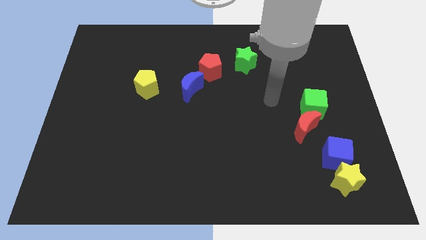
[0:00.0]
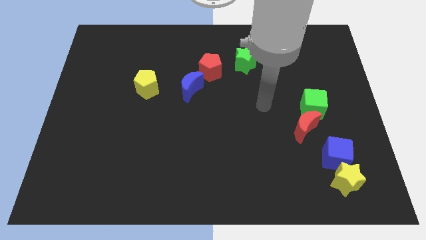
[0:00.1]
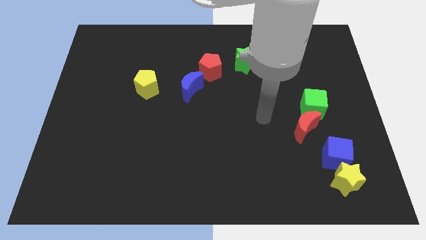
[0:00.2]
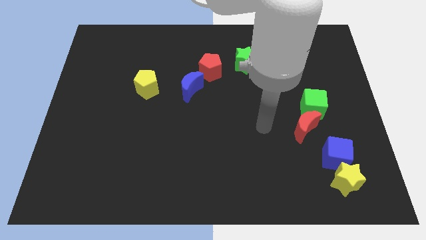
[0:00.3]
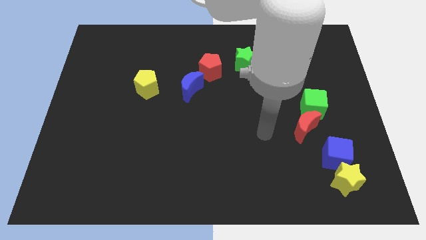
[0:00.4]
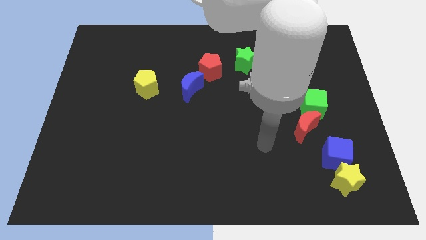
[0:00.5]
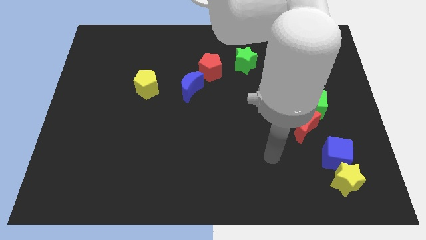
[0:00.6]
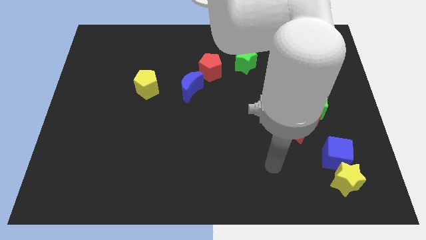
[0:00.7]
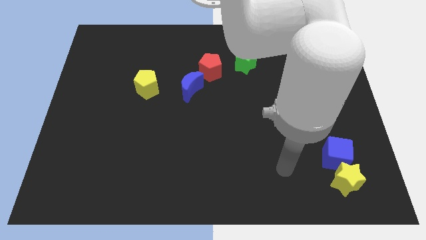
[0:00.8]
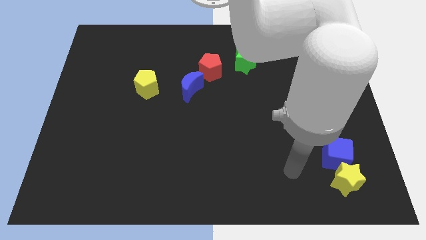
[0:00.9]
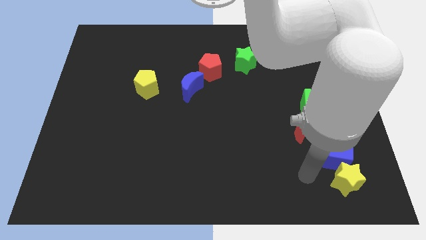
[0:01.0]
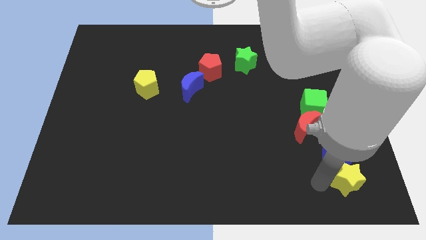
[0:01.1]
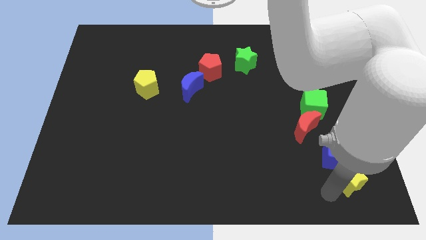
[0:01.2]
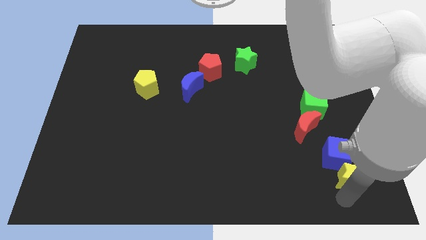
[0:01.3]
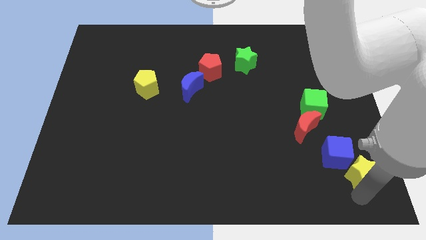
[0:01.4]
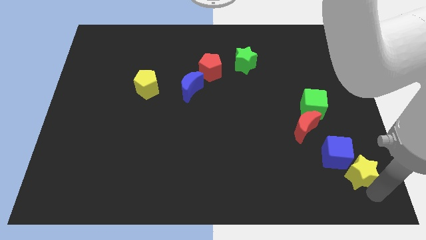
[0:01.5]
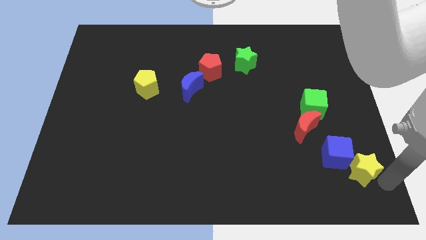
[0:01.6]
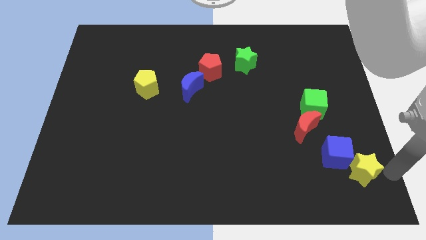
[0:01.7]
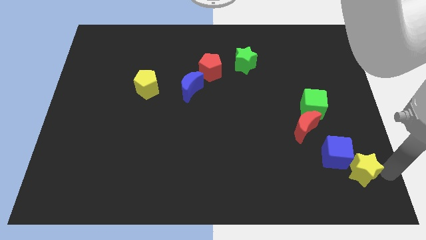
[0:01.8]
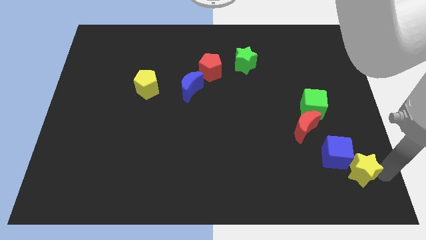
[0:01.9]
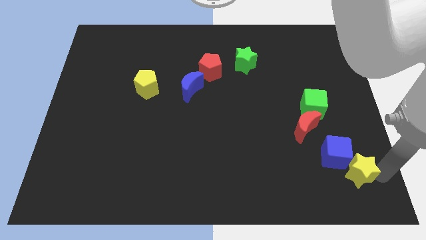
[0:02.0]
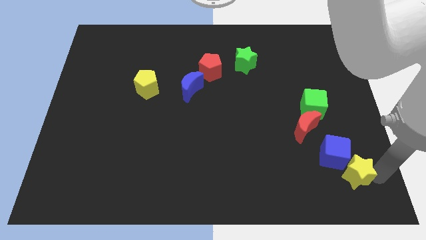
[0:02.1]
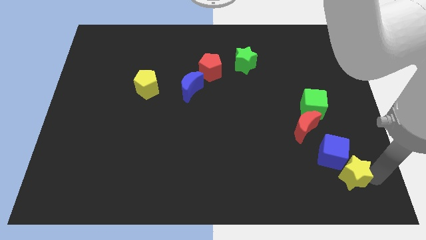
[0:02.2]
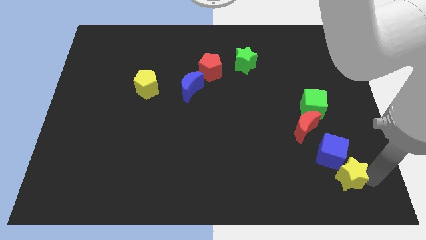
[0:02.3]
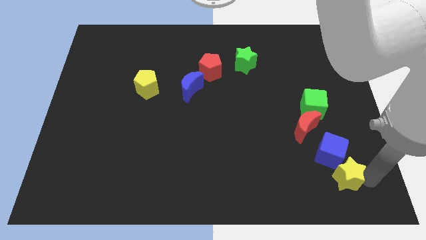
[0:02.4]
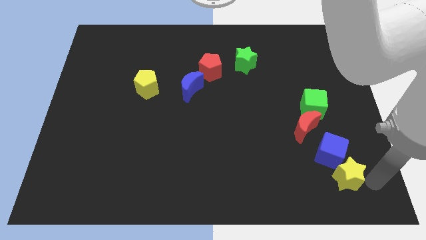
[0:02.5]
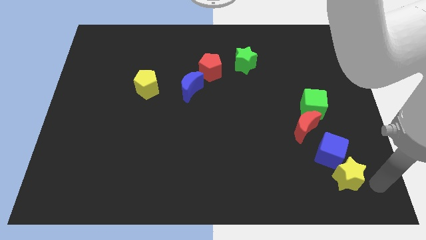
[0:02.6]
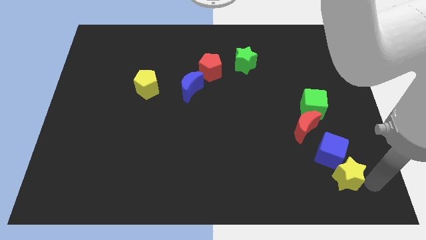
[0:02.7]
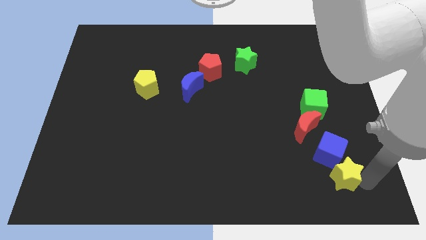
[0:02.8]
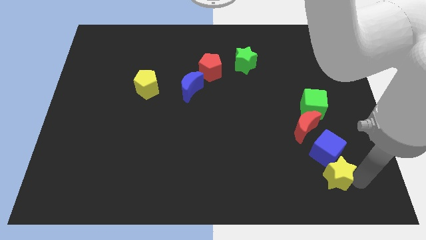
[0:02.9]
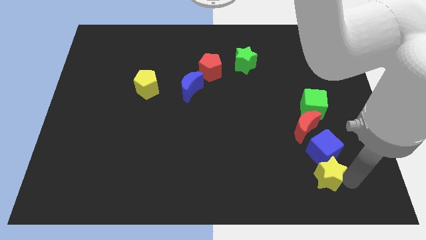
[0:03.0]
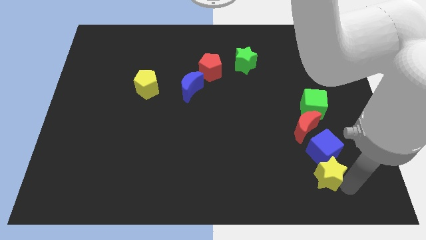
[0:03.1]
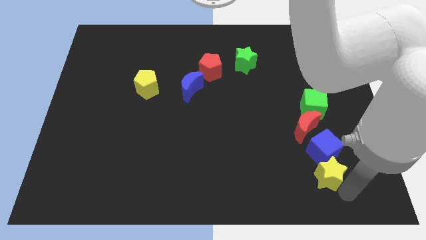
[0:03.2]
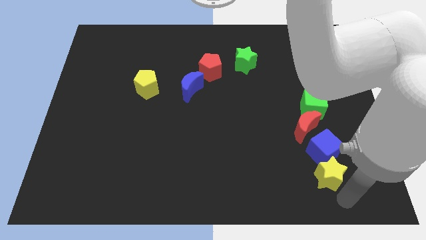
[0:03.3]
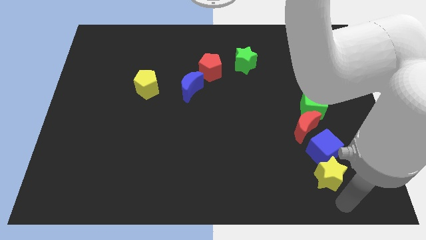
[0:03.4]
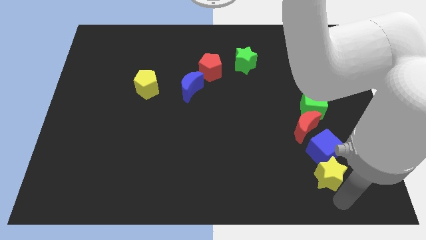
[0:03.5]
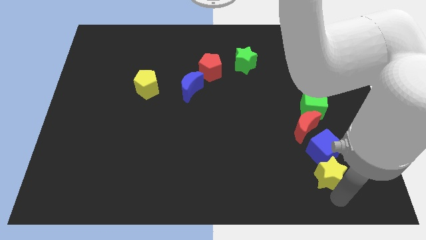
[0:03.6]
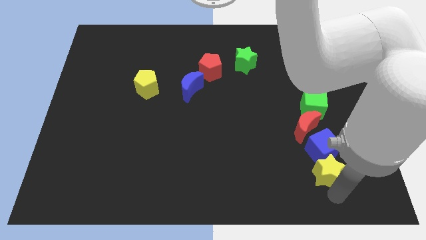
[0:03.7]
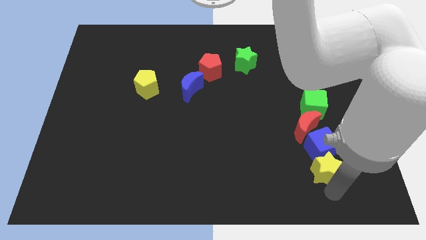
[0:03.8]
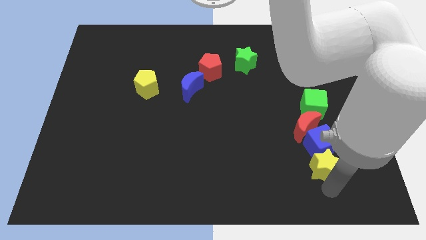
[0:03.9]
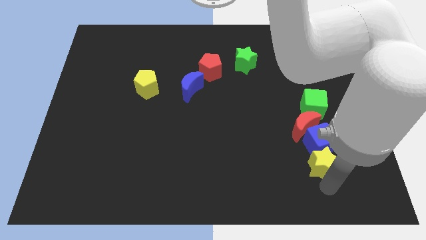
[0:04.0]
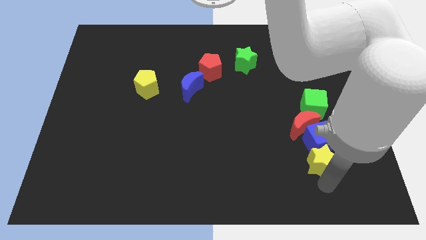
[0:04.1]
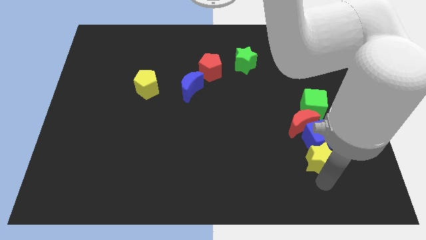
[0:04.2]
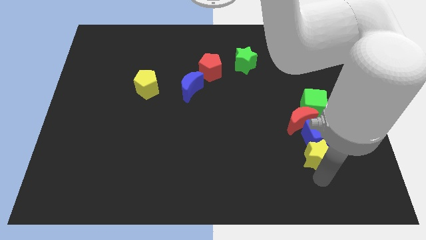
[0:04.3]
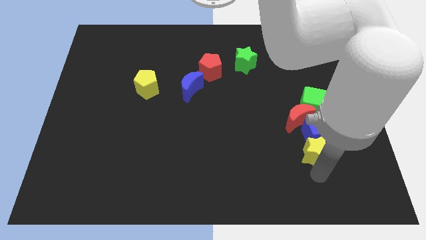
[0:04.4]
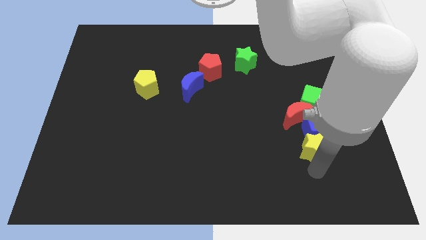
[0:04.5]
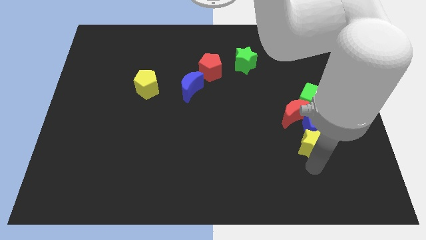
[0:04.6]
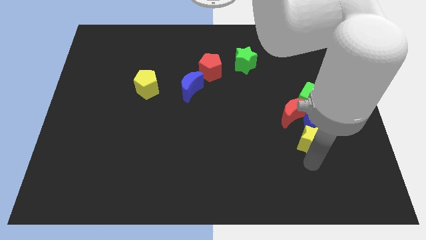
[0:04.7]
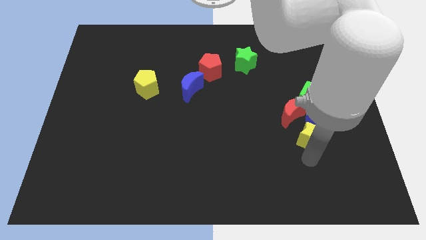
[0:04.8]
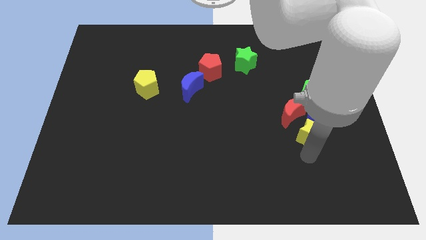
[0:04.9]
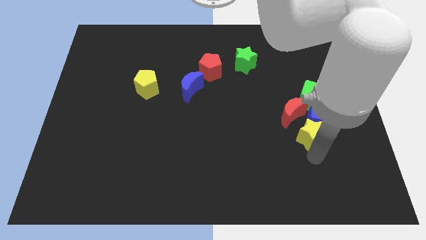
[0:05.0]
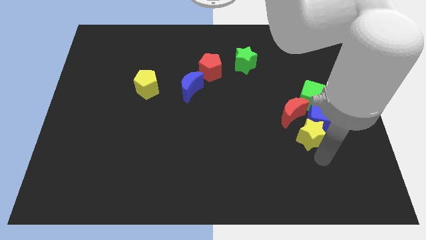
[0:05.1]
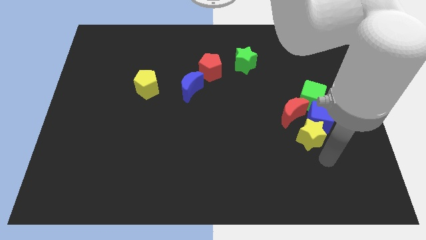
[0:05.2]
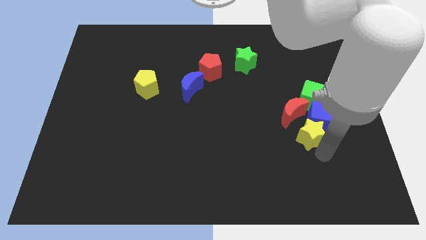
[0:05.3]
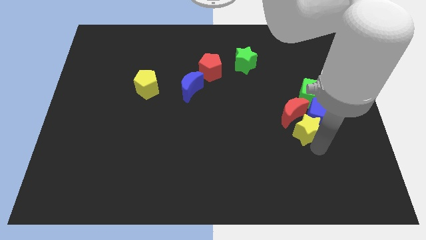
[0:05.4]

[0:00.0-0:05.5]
move the yellow star to the red moon

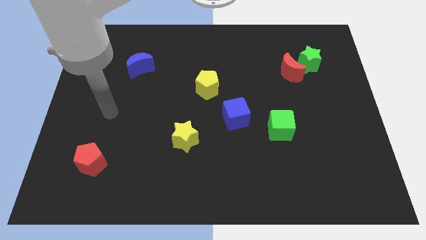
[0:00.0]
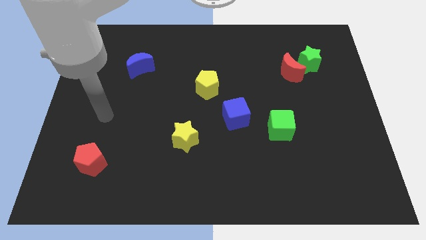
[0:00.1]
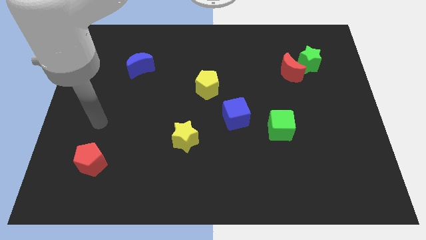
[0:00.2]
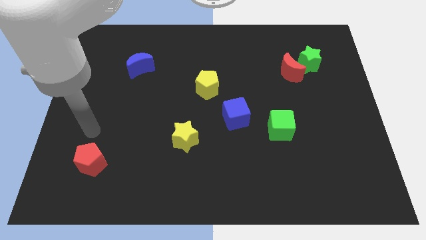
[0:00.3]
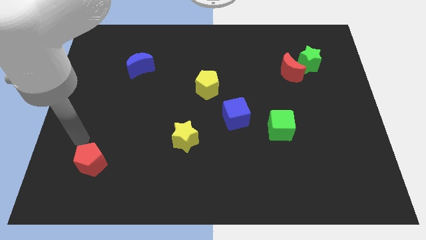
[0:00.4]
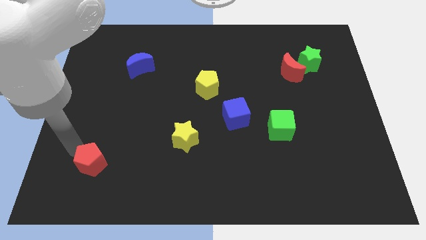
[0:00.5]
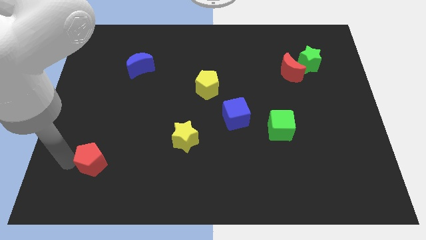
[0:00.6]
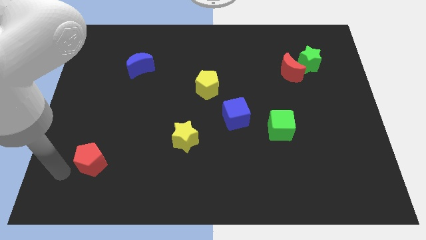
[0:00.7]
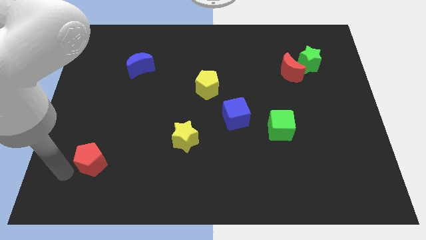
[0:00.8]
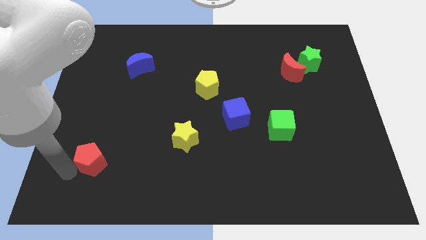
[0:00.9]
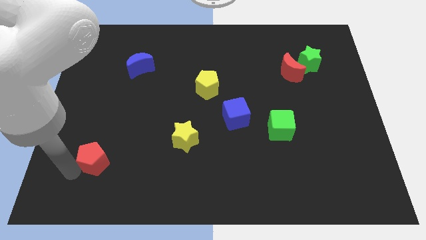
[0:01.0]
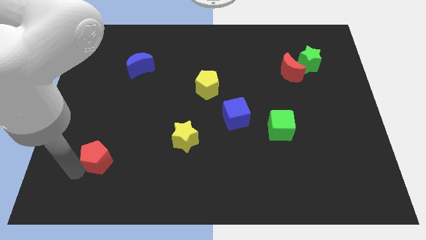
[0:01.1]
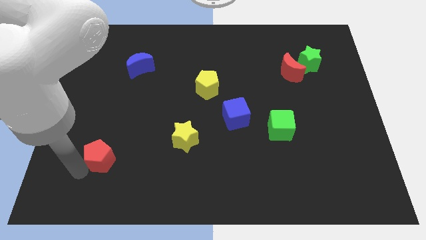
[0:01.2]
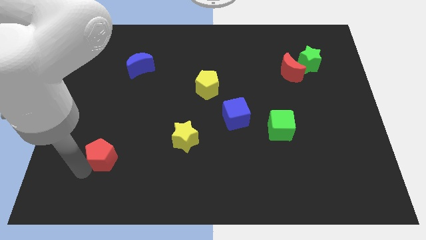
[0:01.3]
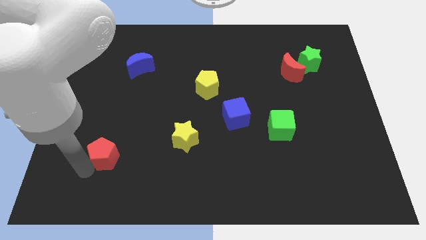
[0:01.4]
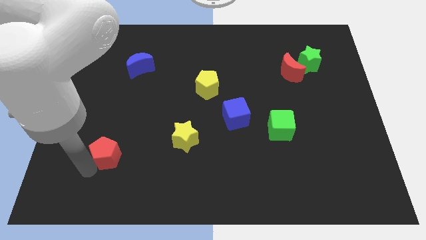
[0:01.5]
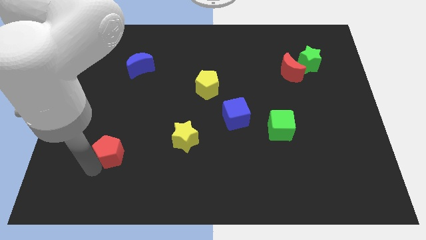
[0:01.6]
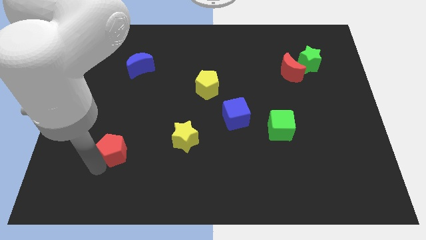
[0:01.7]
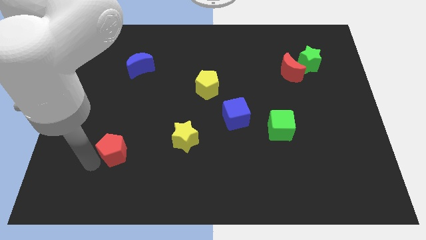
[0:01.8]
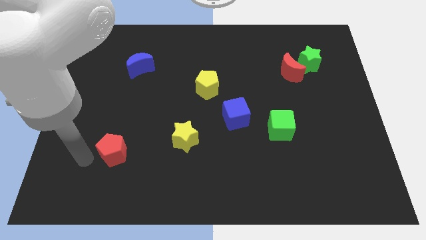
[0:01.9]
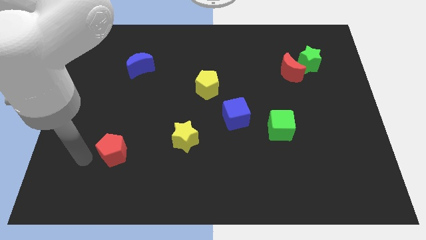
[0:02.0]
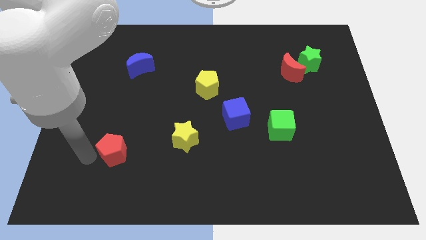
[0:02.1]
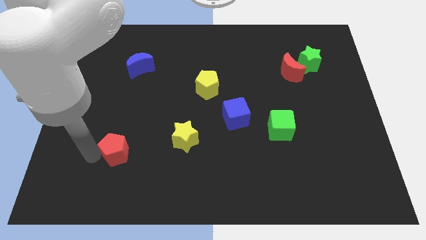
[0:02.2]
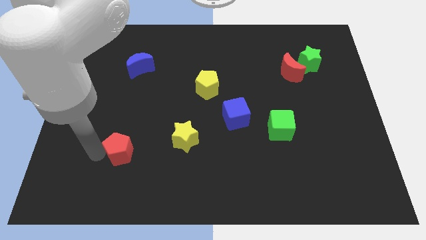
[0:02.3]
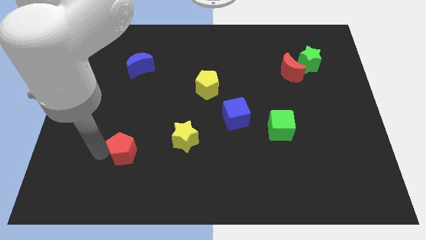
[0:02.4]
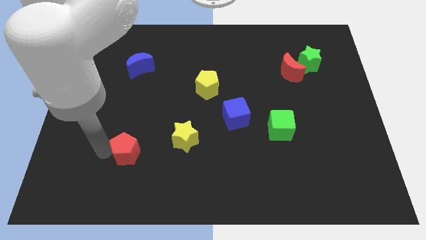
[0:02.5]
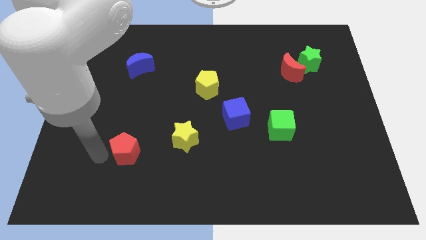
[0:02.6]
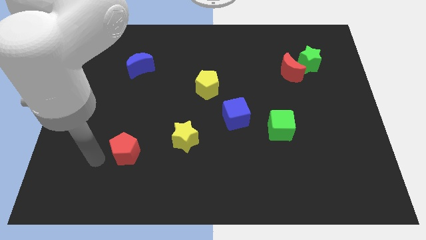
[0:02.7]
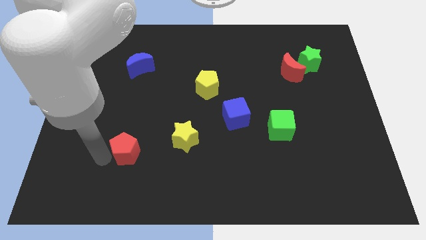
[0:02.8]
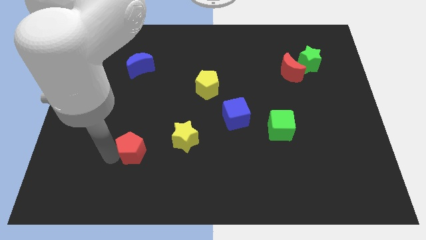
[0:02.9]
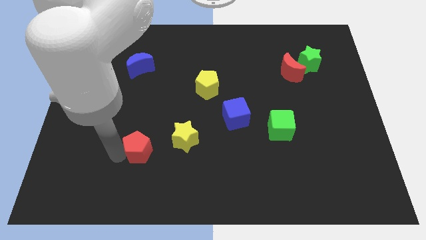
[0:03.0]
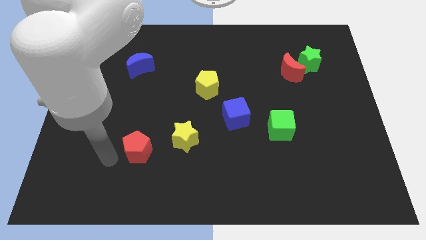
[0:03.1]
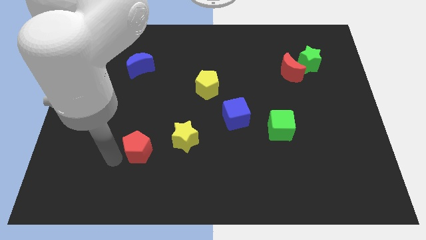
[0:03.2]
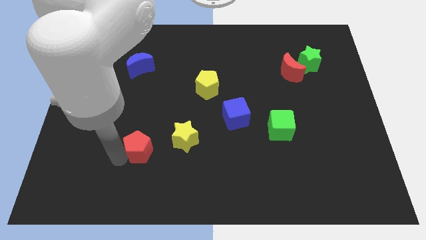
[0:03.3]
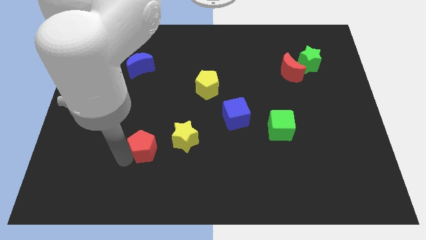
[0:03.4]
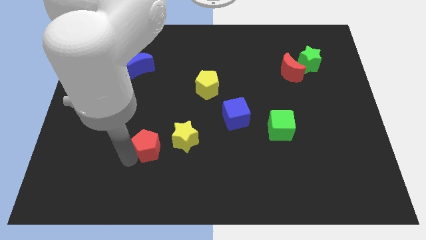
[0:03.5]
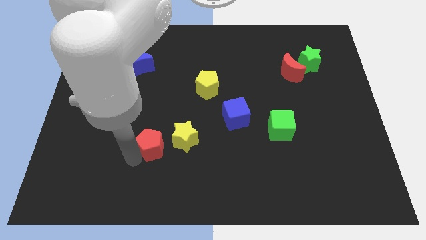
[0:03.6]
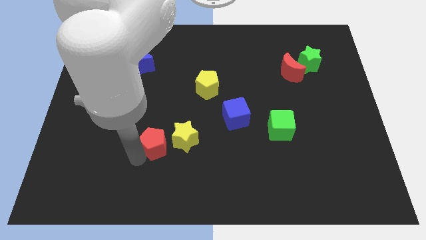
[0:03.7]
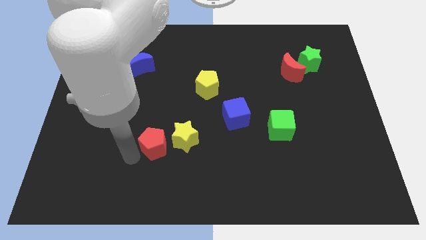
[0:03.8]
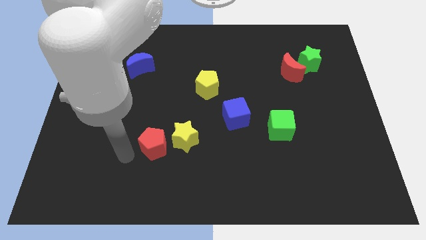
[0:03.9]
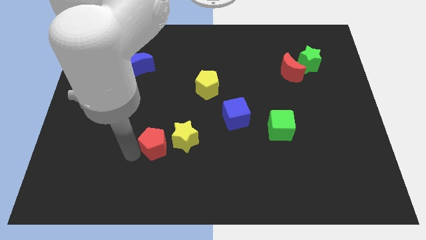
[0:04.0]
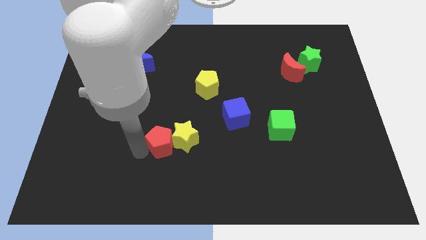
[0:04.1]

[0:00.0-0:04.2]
put the red pentagon close to the yellow star
